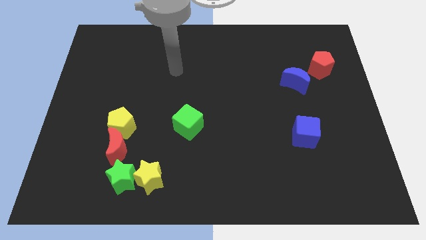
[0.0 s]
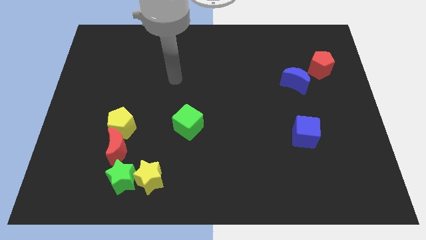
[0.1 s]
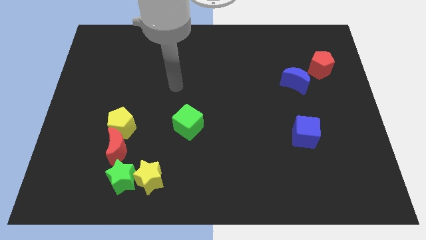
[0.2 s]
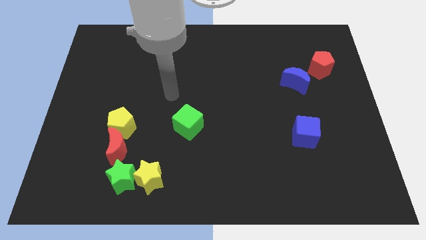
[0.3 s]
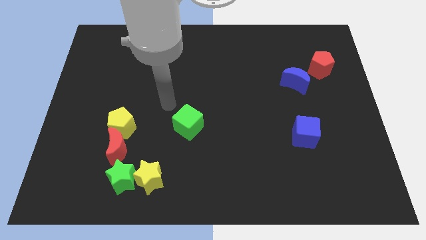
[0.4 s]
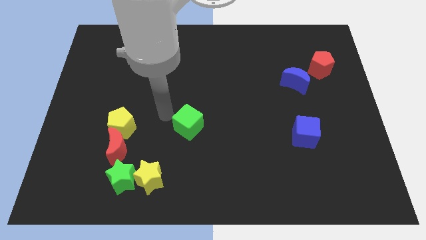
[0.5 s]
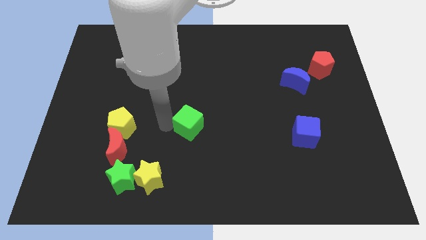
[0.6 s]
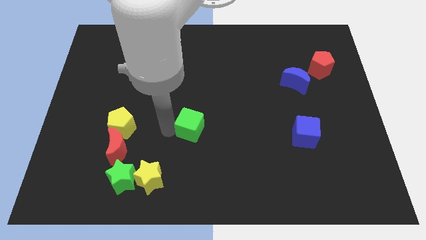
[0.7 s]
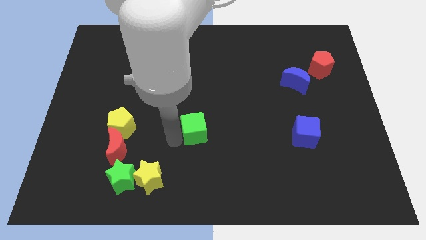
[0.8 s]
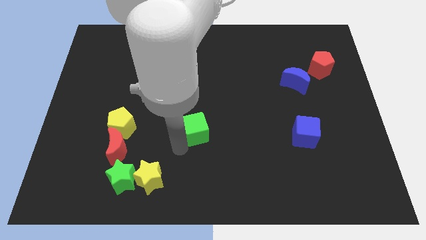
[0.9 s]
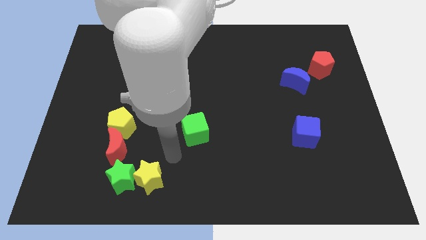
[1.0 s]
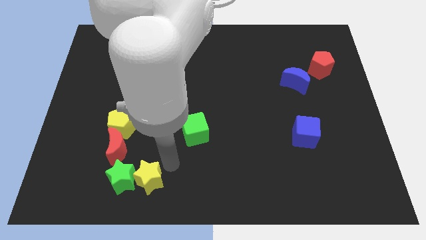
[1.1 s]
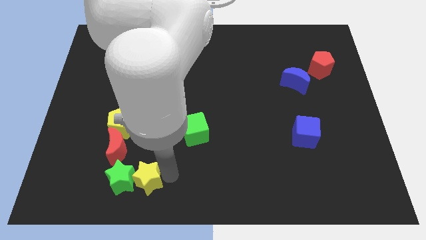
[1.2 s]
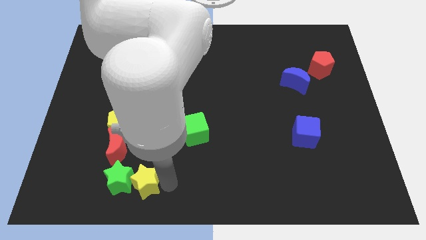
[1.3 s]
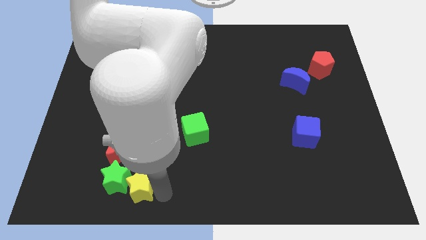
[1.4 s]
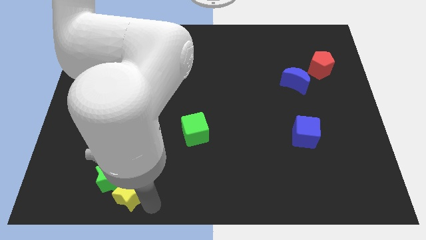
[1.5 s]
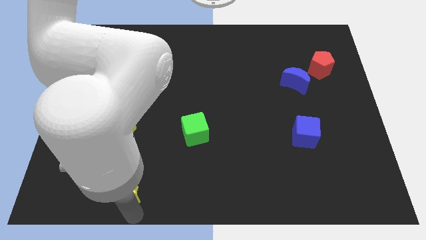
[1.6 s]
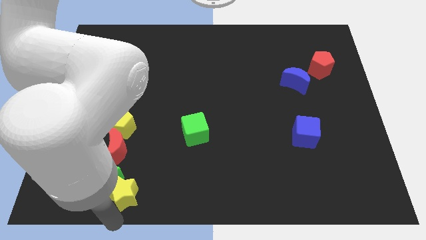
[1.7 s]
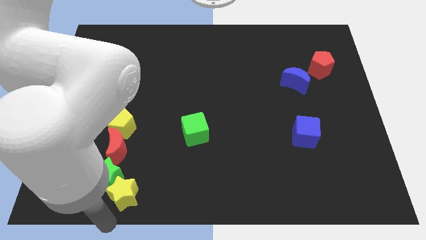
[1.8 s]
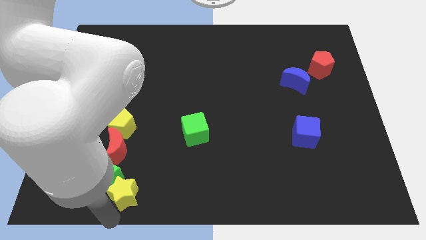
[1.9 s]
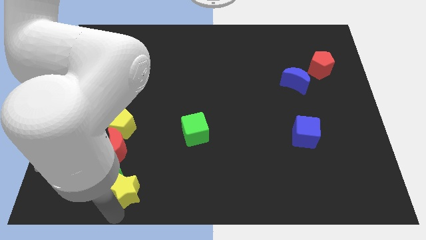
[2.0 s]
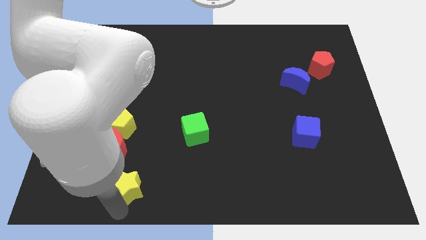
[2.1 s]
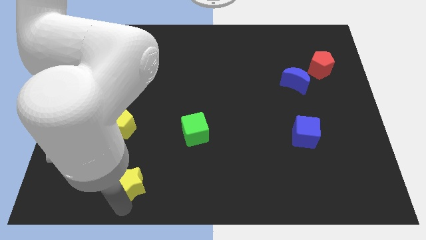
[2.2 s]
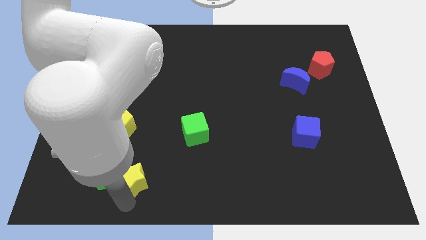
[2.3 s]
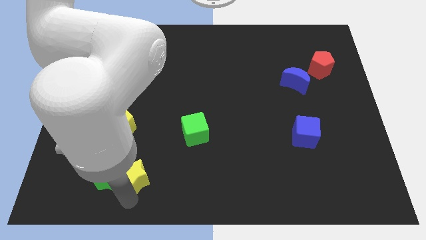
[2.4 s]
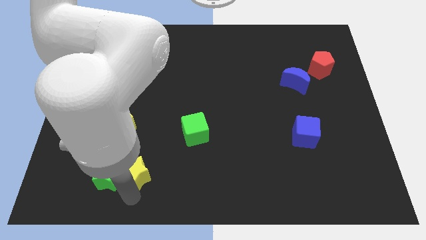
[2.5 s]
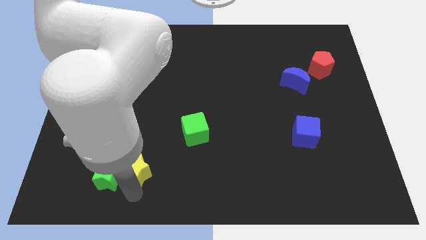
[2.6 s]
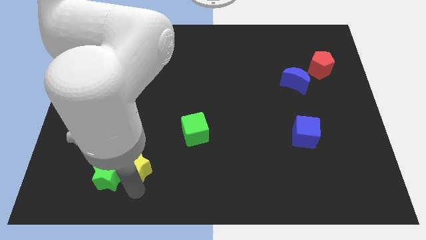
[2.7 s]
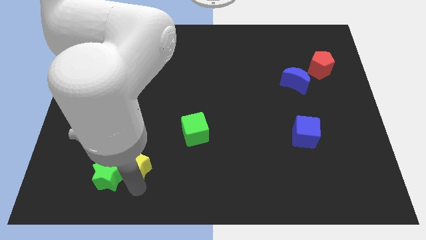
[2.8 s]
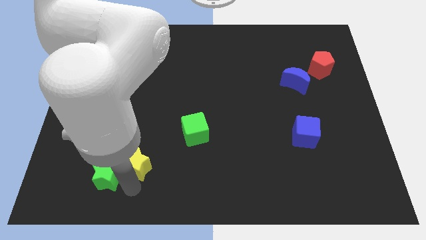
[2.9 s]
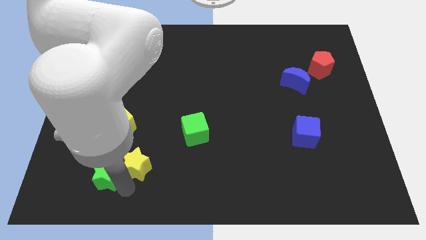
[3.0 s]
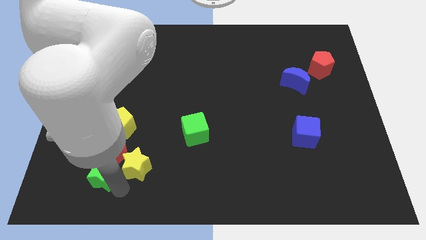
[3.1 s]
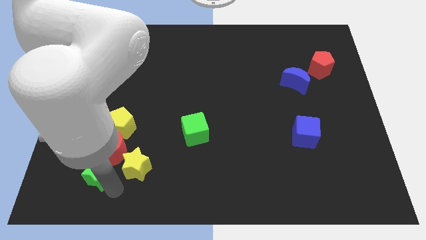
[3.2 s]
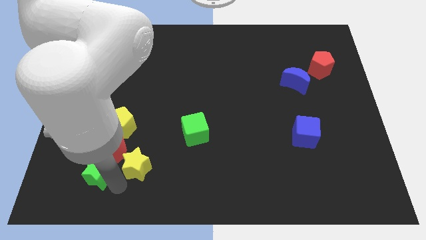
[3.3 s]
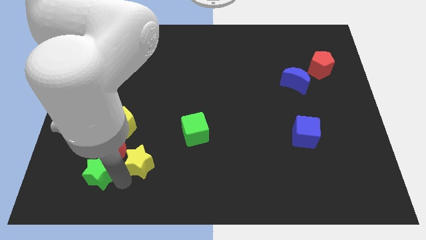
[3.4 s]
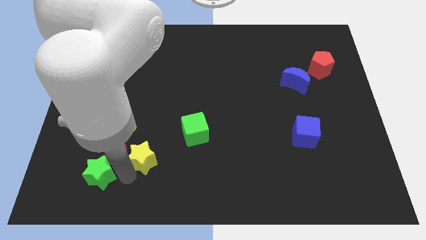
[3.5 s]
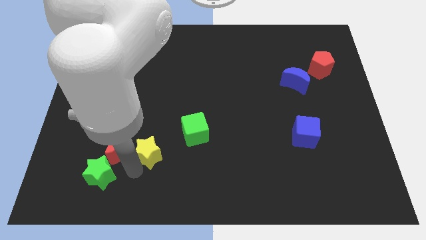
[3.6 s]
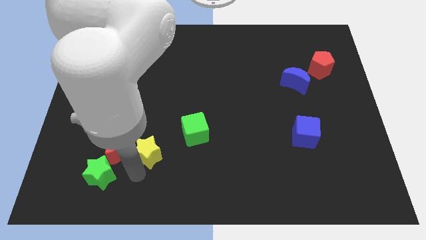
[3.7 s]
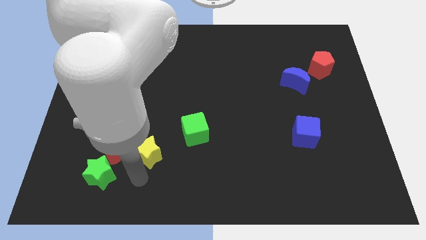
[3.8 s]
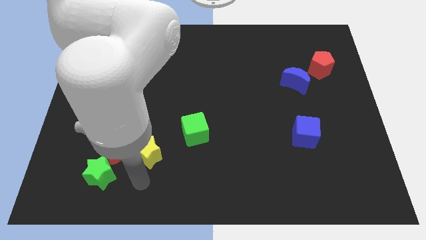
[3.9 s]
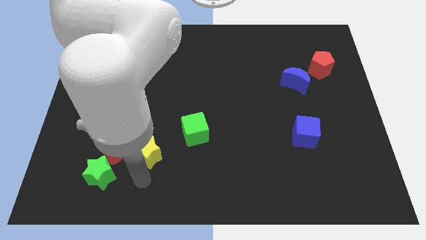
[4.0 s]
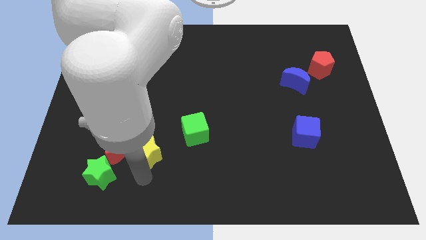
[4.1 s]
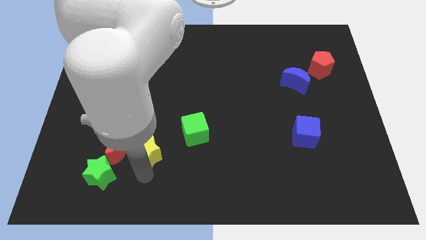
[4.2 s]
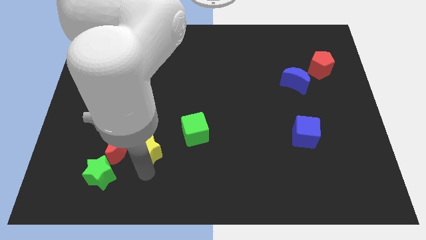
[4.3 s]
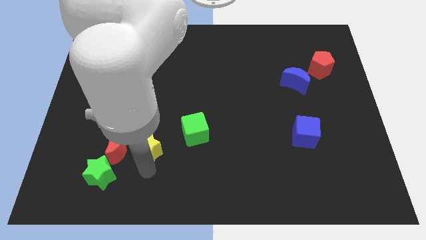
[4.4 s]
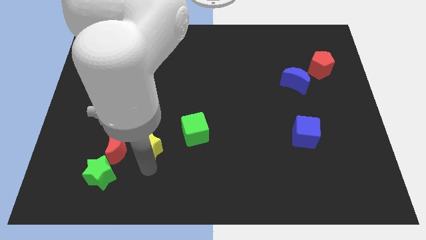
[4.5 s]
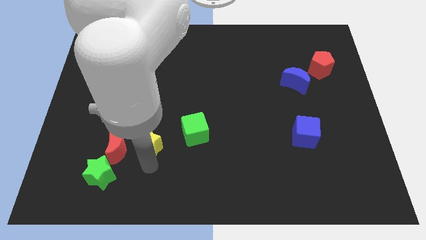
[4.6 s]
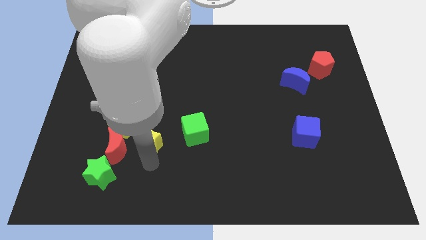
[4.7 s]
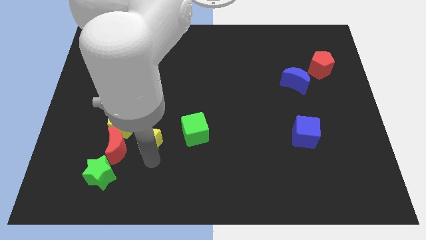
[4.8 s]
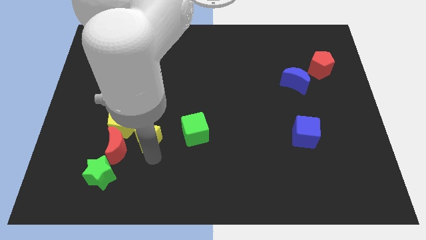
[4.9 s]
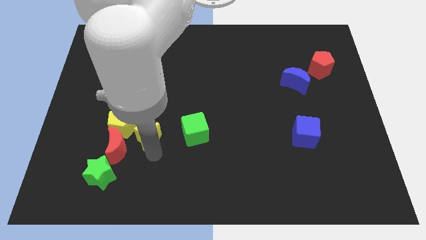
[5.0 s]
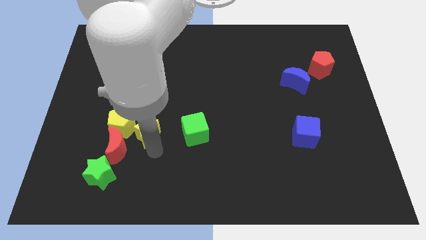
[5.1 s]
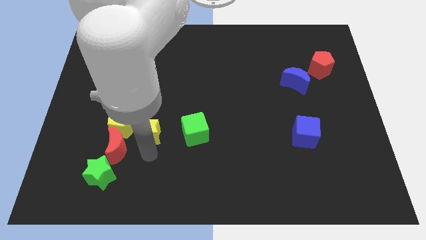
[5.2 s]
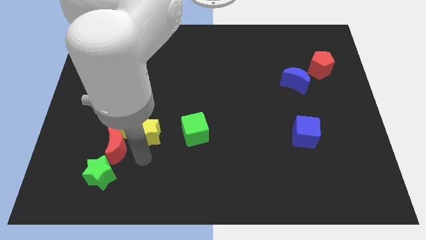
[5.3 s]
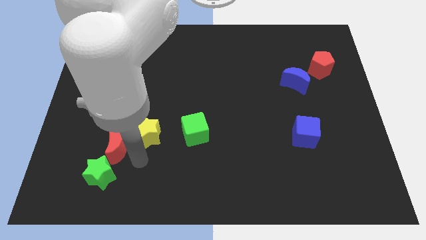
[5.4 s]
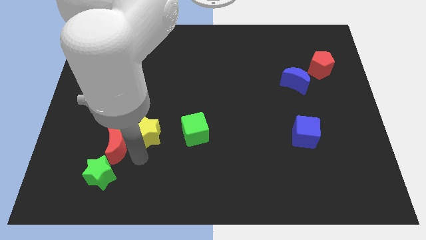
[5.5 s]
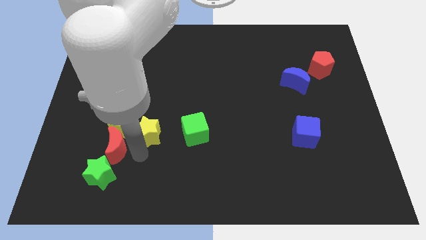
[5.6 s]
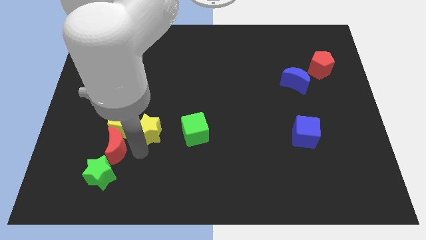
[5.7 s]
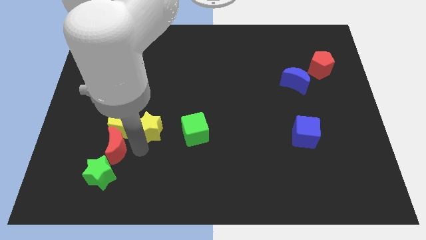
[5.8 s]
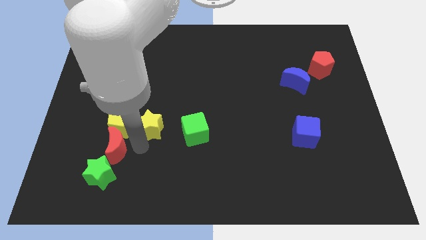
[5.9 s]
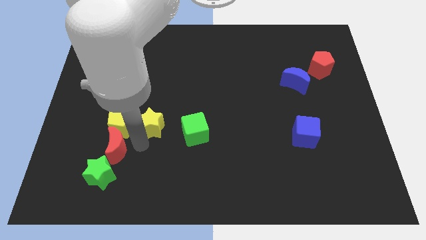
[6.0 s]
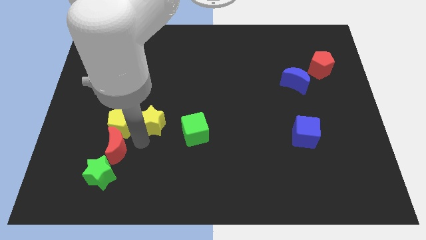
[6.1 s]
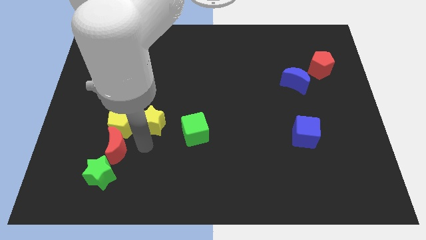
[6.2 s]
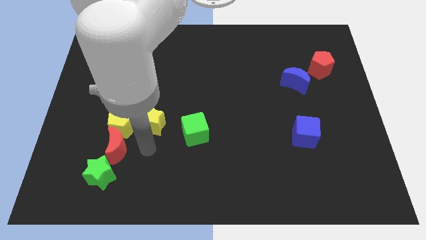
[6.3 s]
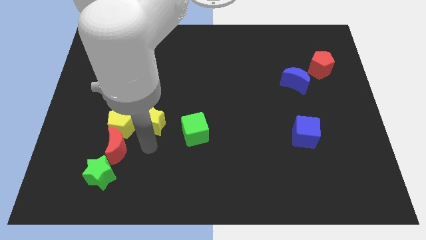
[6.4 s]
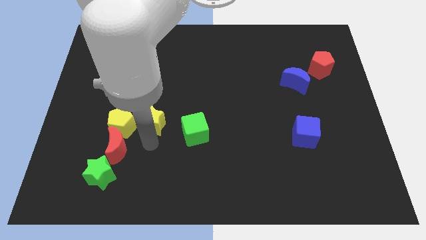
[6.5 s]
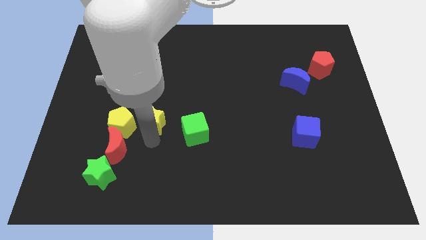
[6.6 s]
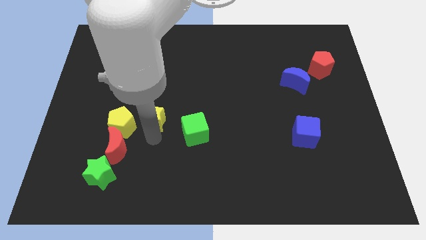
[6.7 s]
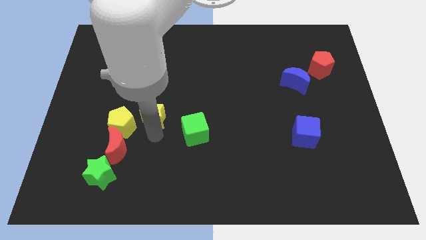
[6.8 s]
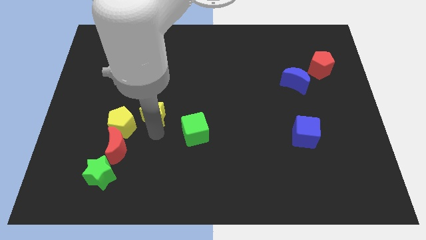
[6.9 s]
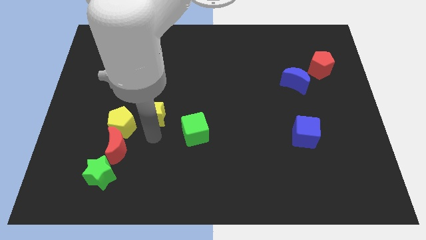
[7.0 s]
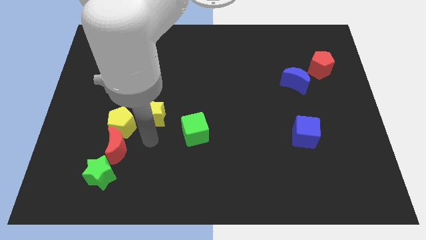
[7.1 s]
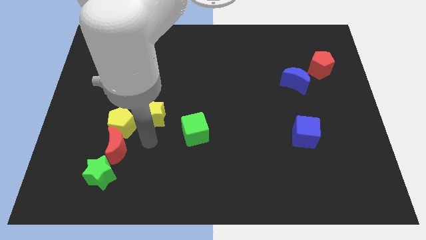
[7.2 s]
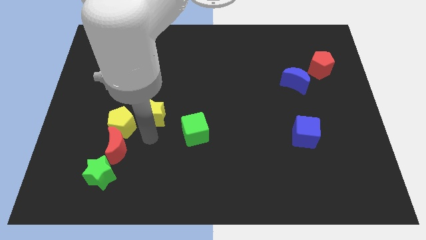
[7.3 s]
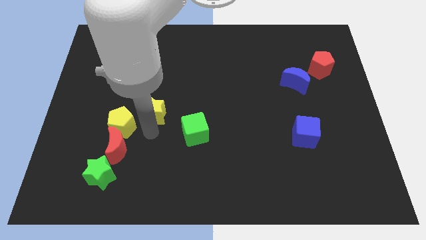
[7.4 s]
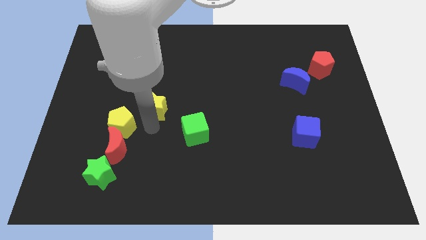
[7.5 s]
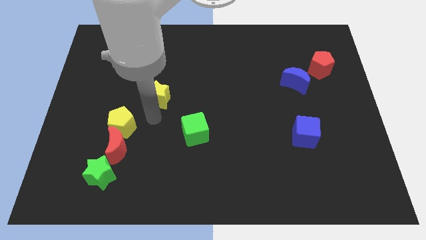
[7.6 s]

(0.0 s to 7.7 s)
move the yellow star upwards
